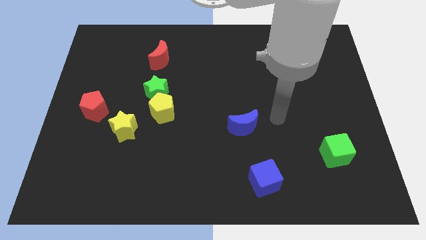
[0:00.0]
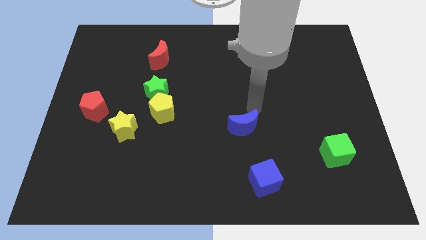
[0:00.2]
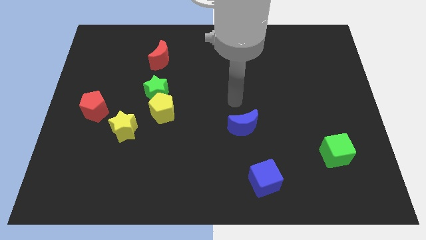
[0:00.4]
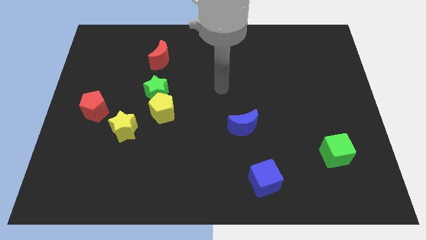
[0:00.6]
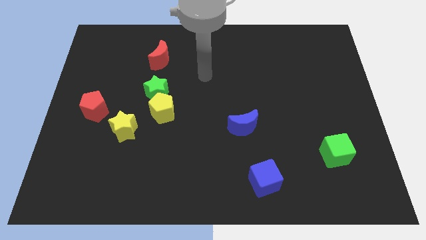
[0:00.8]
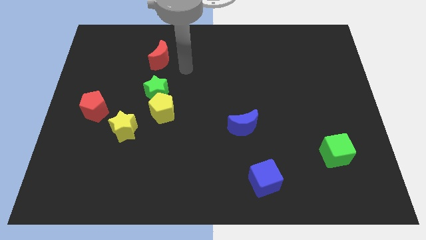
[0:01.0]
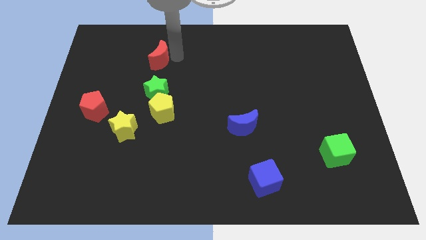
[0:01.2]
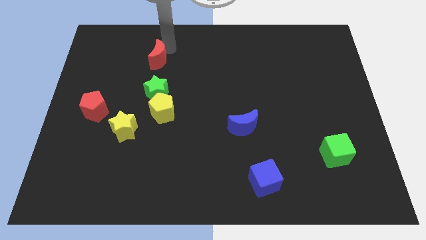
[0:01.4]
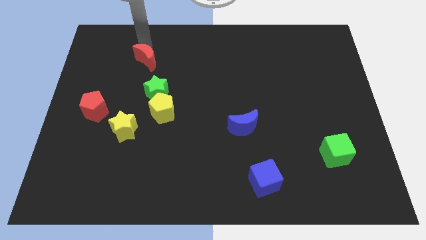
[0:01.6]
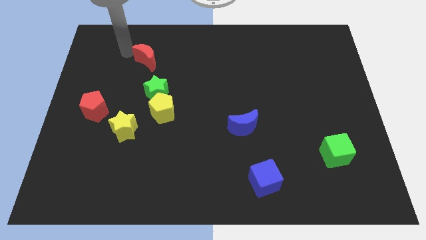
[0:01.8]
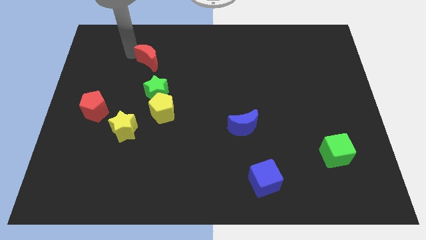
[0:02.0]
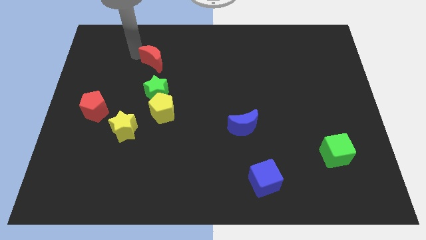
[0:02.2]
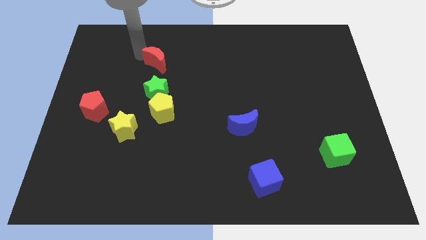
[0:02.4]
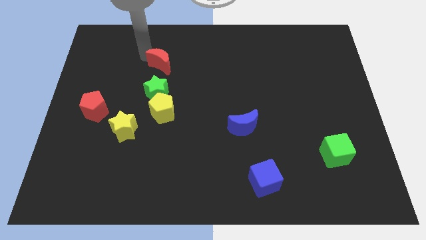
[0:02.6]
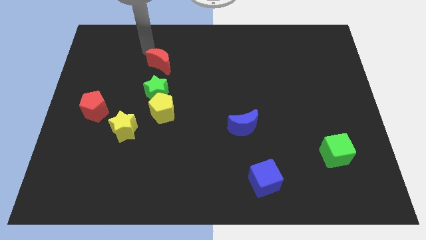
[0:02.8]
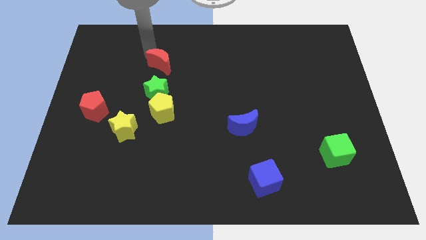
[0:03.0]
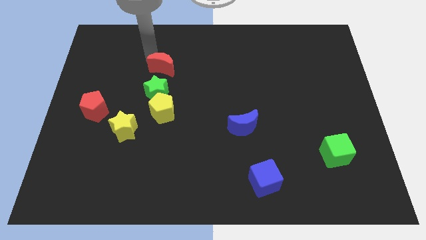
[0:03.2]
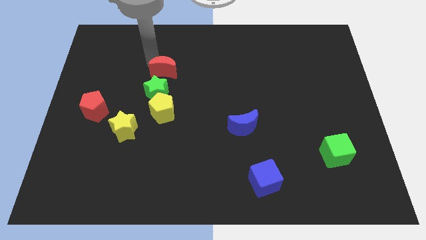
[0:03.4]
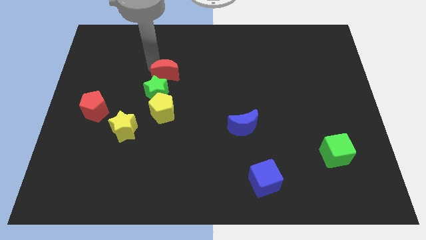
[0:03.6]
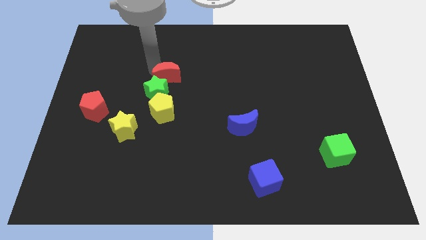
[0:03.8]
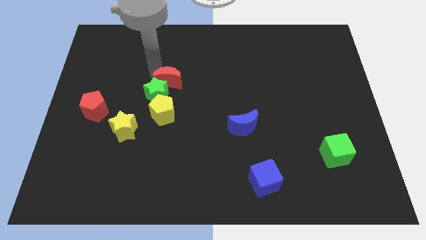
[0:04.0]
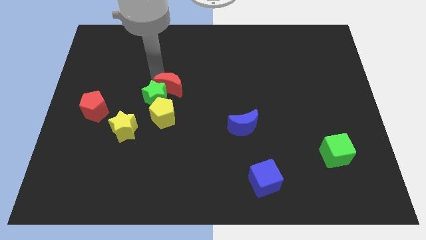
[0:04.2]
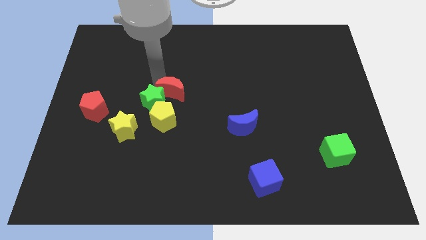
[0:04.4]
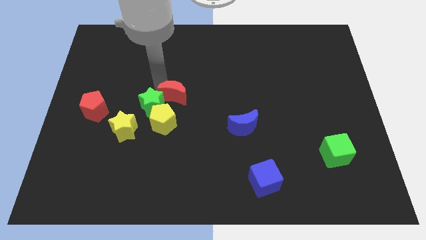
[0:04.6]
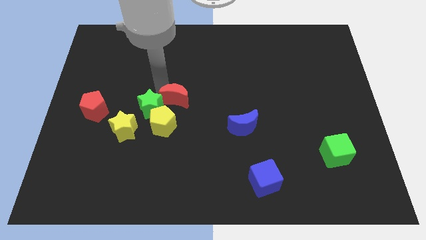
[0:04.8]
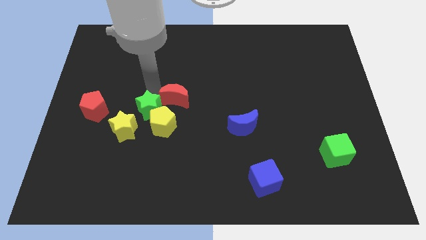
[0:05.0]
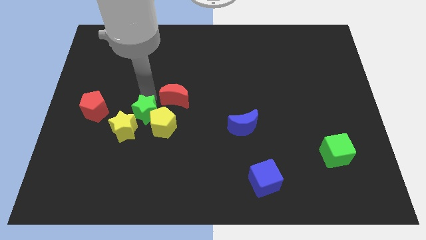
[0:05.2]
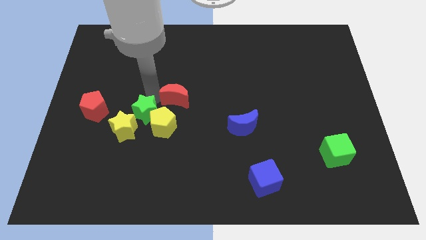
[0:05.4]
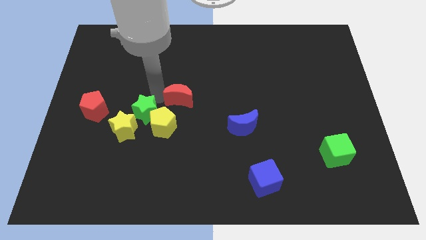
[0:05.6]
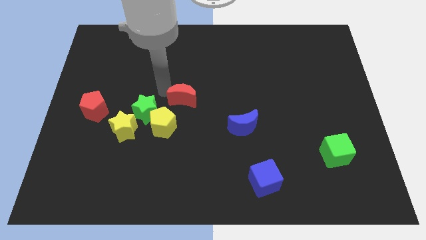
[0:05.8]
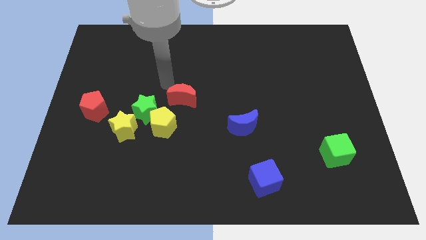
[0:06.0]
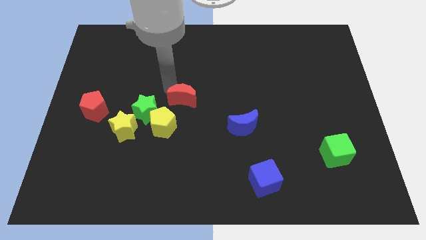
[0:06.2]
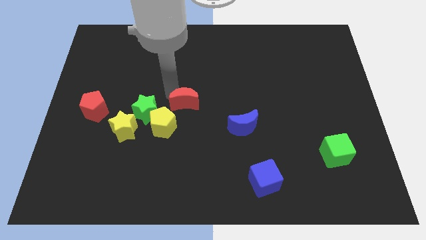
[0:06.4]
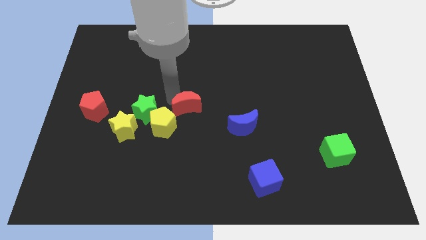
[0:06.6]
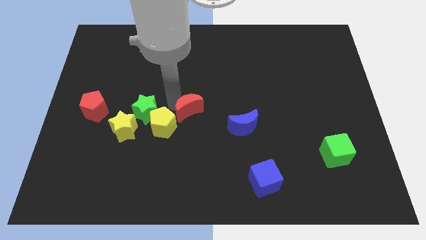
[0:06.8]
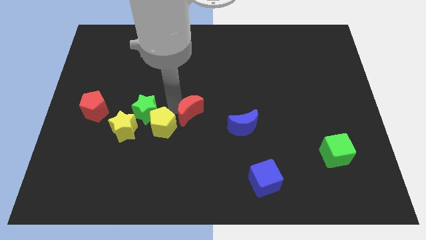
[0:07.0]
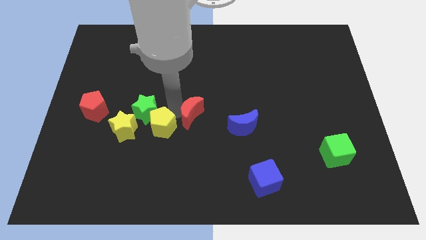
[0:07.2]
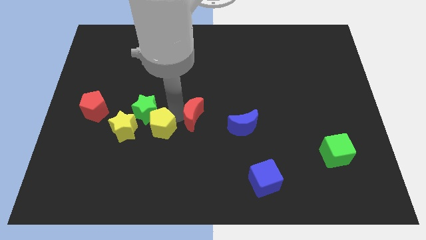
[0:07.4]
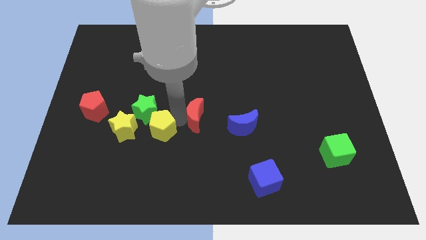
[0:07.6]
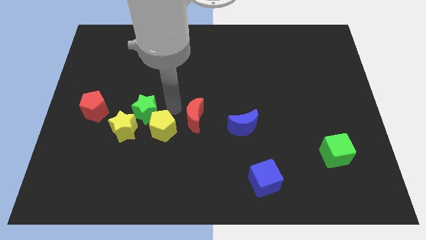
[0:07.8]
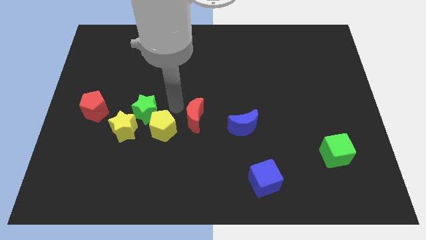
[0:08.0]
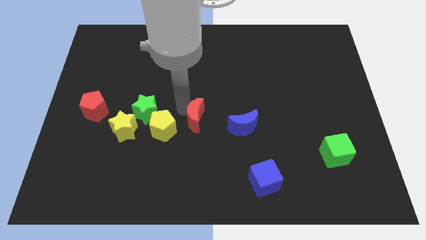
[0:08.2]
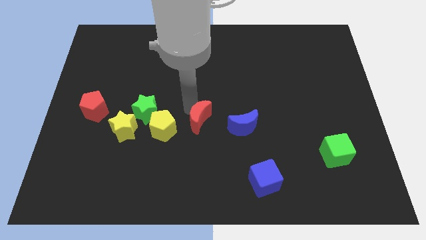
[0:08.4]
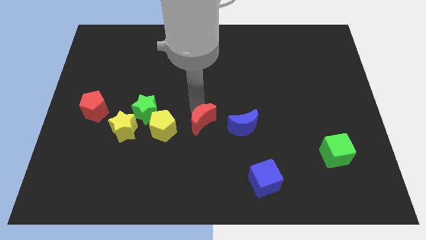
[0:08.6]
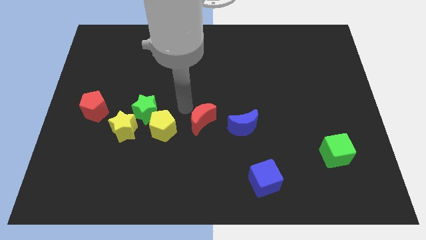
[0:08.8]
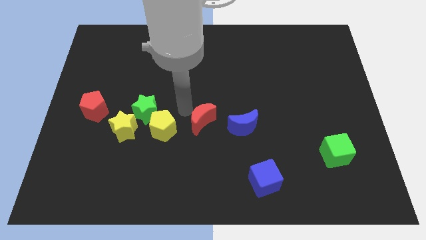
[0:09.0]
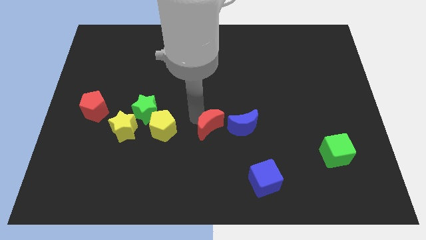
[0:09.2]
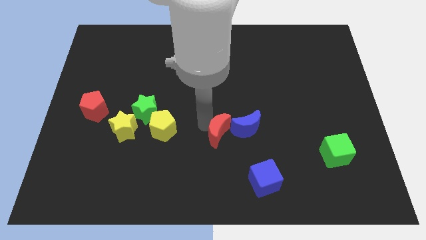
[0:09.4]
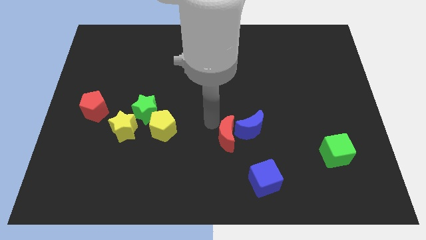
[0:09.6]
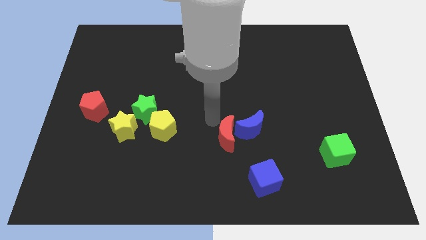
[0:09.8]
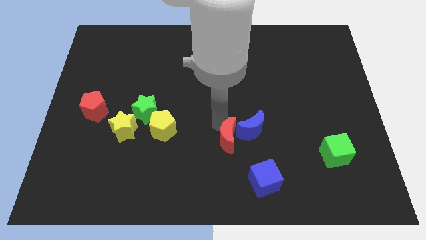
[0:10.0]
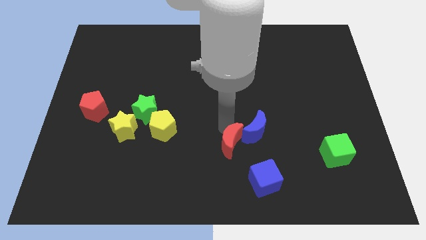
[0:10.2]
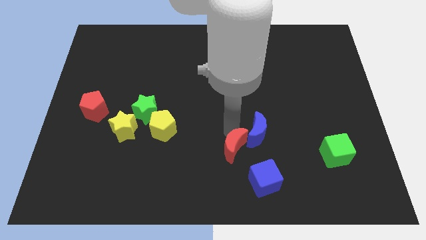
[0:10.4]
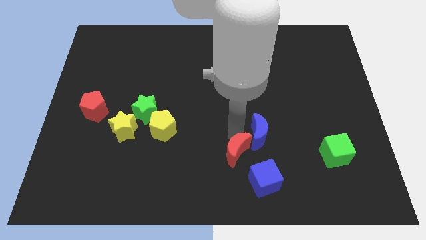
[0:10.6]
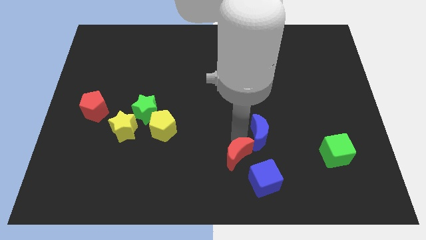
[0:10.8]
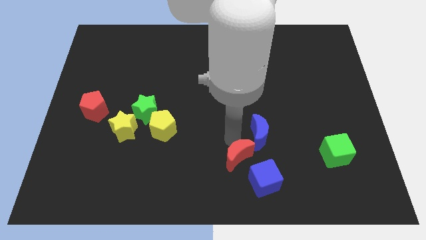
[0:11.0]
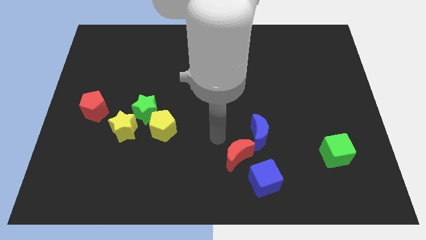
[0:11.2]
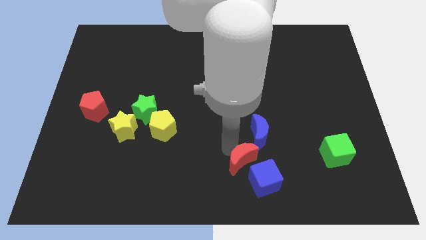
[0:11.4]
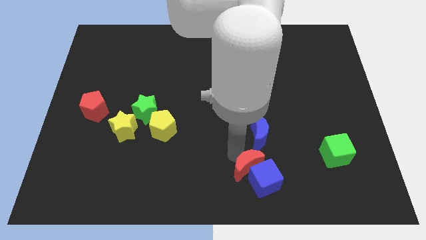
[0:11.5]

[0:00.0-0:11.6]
put the red moon close to the blue cube

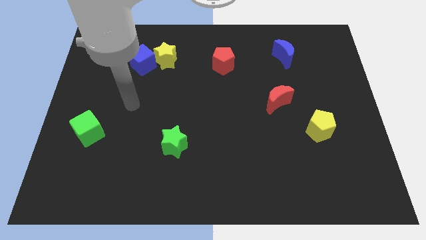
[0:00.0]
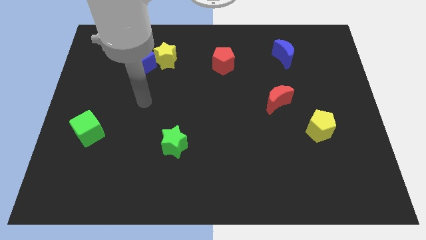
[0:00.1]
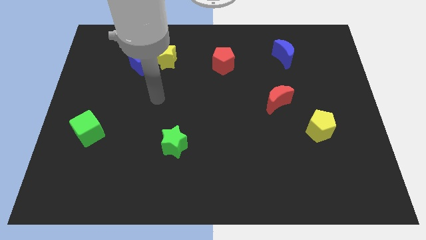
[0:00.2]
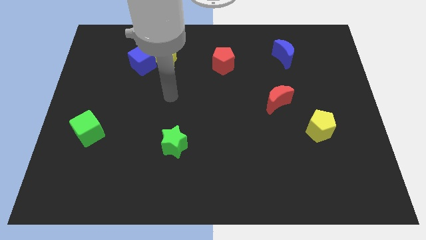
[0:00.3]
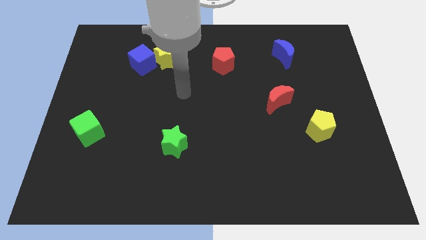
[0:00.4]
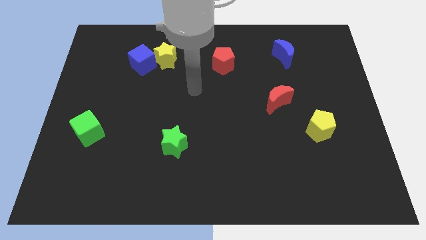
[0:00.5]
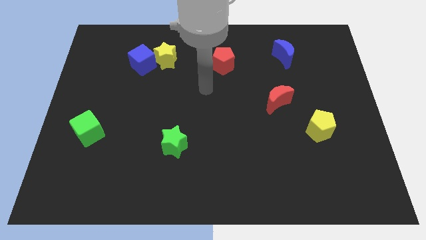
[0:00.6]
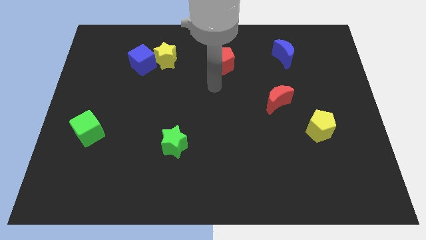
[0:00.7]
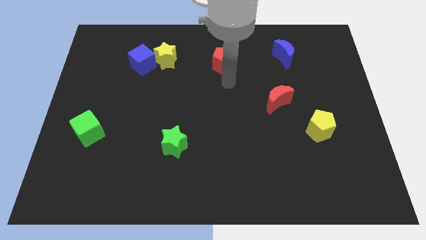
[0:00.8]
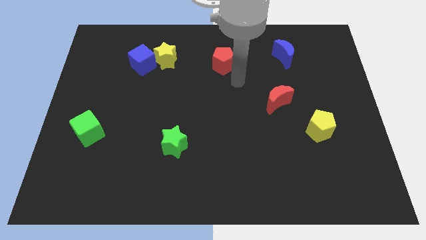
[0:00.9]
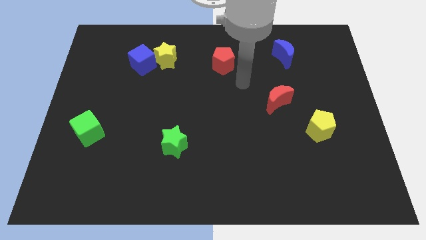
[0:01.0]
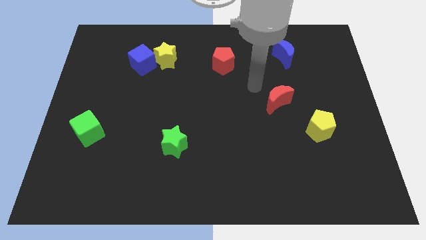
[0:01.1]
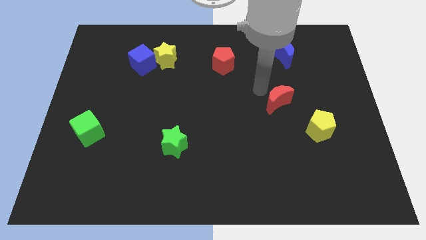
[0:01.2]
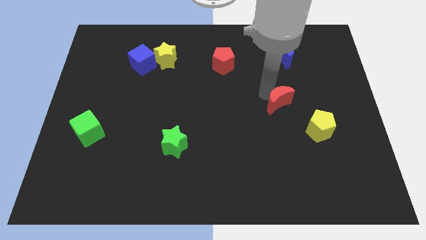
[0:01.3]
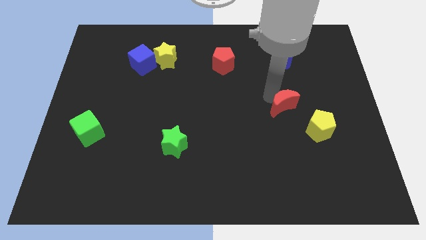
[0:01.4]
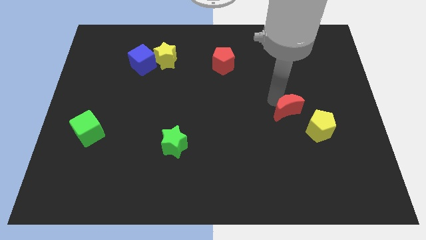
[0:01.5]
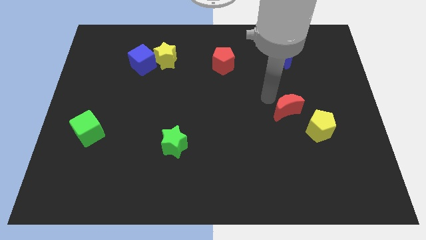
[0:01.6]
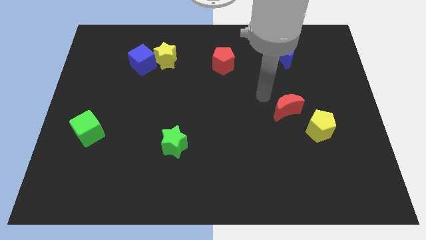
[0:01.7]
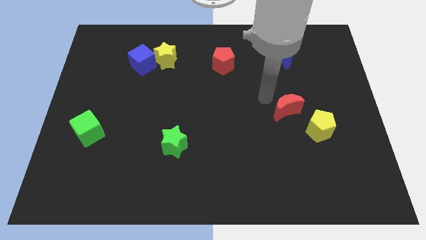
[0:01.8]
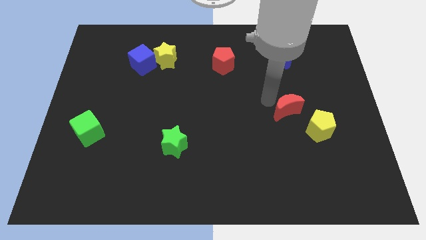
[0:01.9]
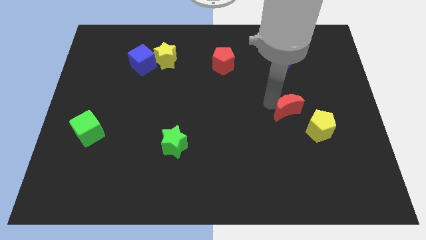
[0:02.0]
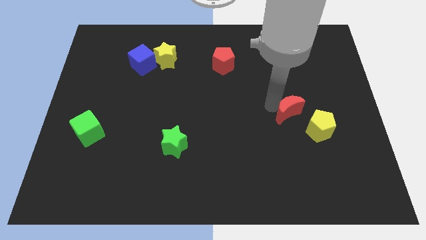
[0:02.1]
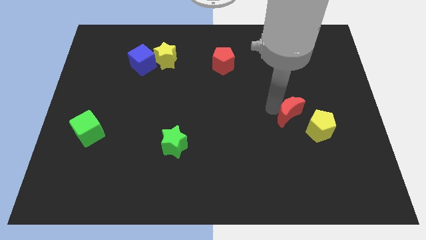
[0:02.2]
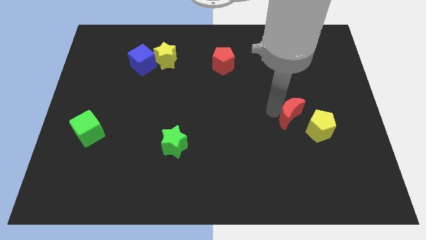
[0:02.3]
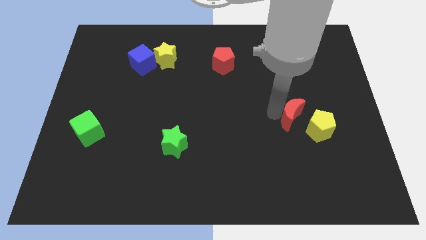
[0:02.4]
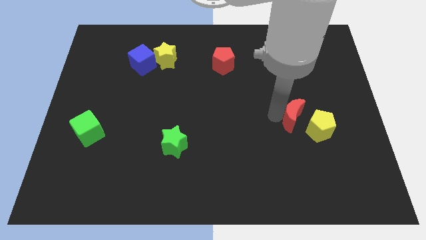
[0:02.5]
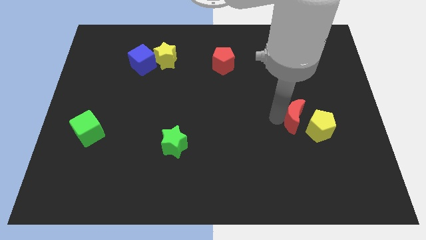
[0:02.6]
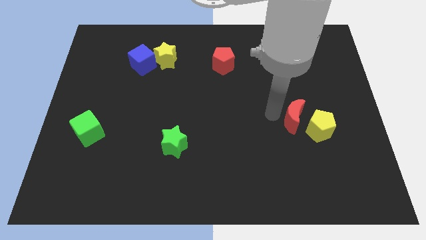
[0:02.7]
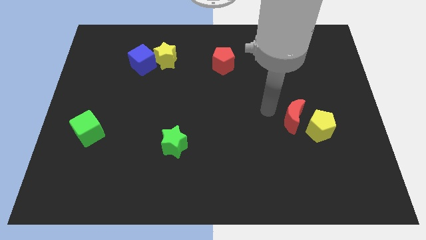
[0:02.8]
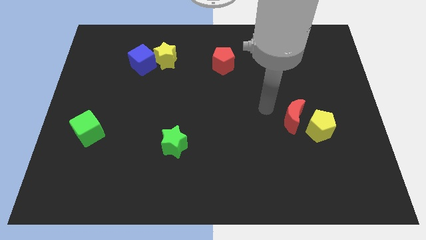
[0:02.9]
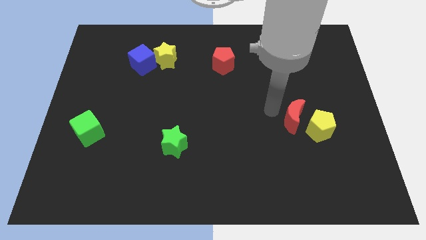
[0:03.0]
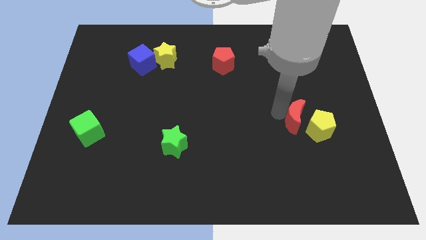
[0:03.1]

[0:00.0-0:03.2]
push the red moon to the yellow pentagon
